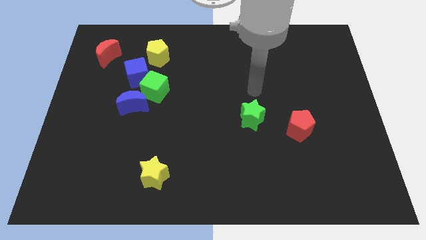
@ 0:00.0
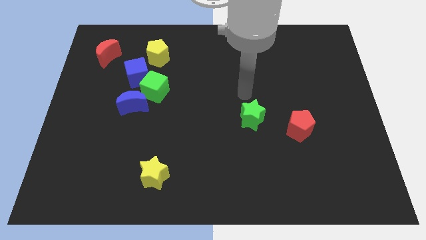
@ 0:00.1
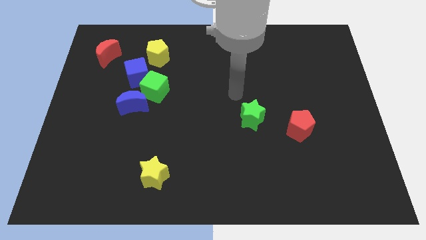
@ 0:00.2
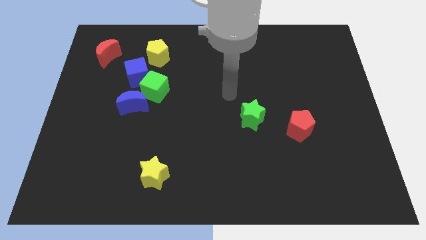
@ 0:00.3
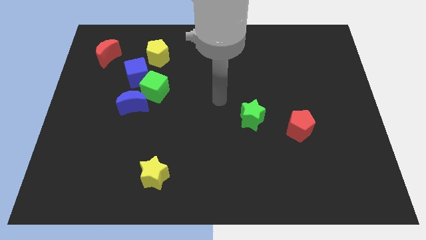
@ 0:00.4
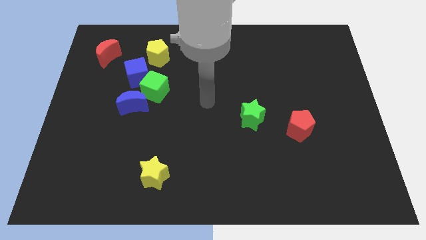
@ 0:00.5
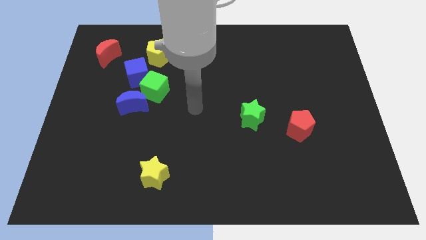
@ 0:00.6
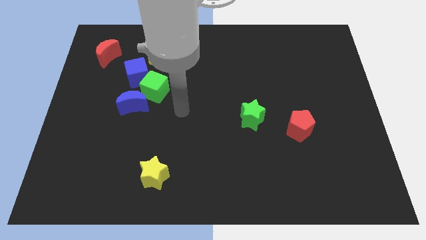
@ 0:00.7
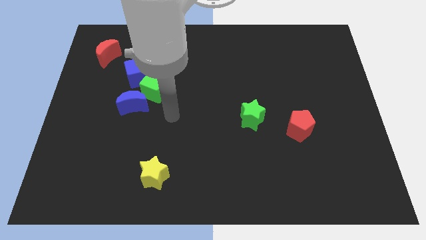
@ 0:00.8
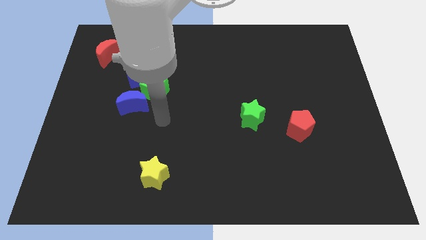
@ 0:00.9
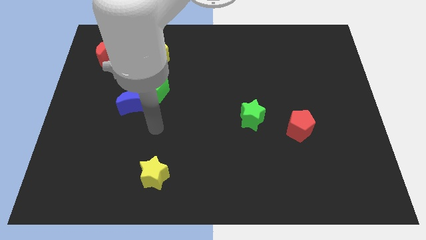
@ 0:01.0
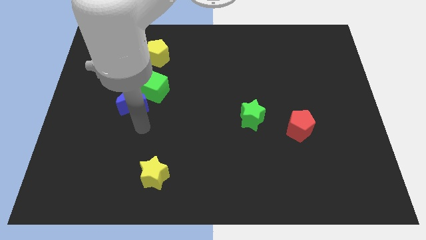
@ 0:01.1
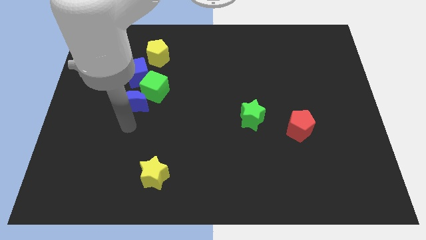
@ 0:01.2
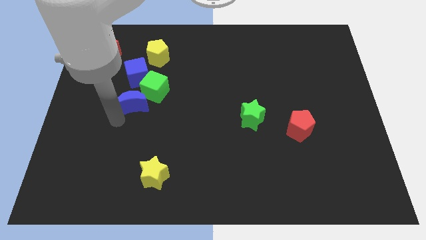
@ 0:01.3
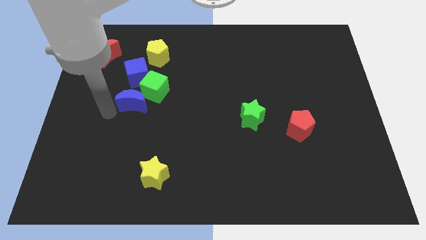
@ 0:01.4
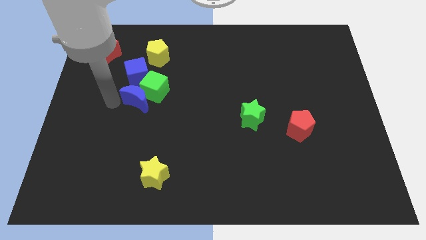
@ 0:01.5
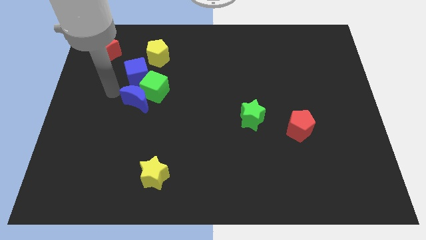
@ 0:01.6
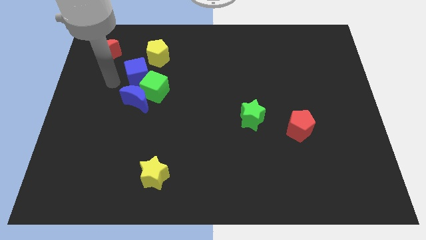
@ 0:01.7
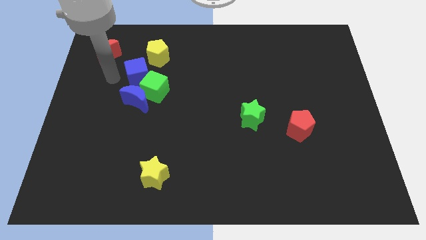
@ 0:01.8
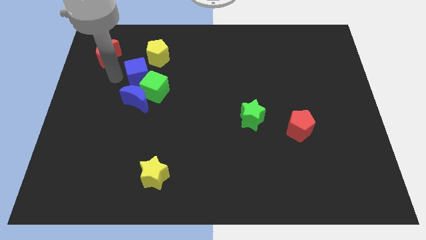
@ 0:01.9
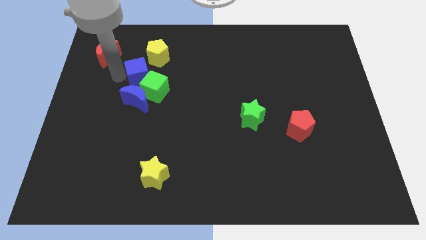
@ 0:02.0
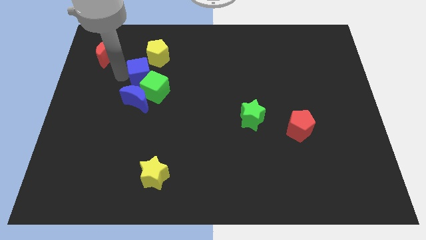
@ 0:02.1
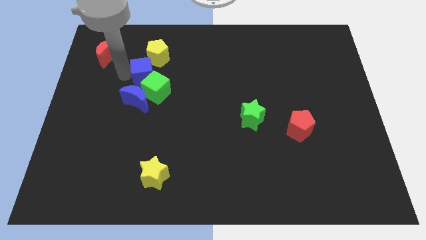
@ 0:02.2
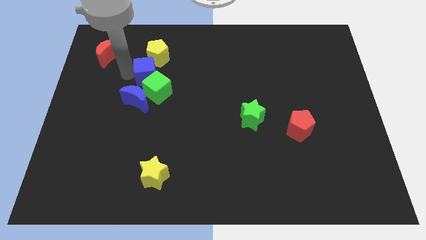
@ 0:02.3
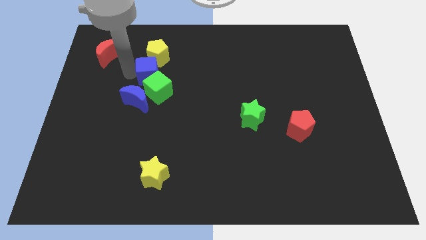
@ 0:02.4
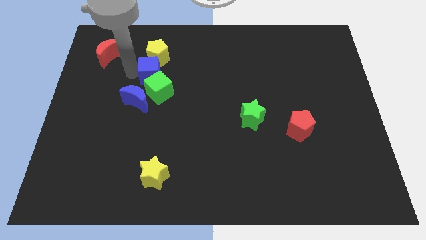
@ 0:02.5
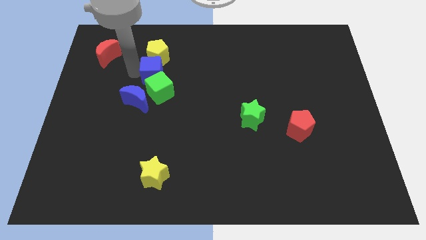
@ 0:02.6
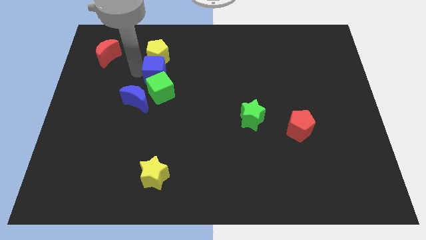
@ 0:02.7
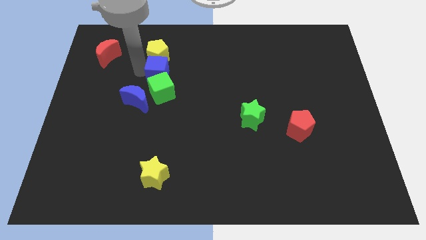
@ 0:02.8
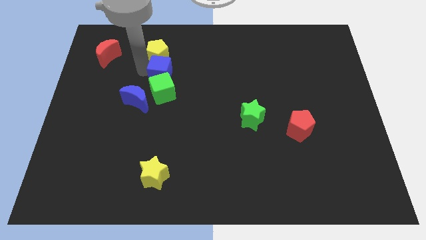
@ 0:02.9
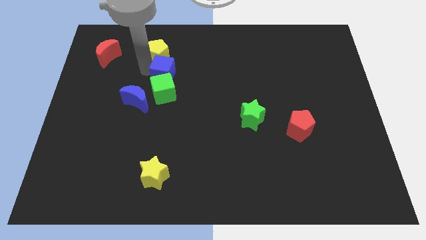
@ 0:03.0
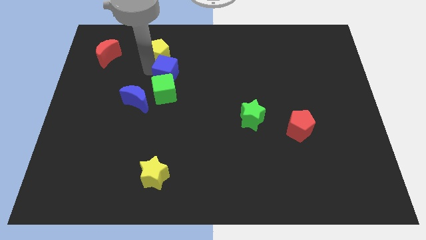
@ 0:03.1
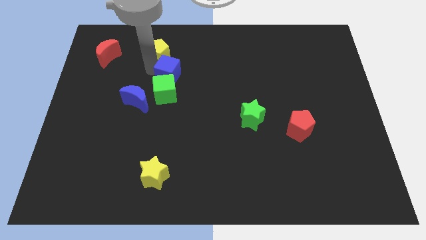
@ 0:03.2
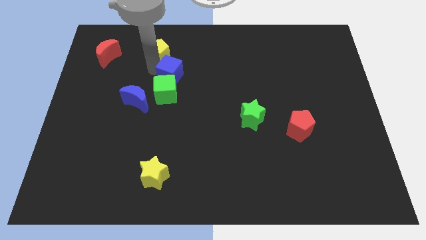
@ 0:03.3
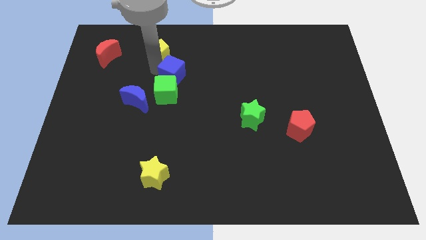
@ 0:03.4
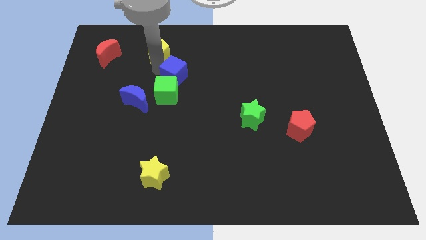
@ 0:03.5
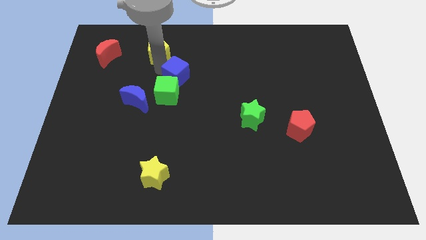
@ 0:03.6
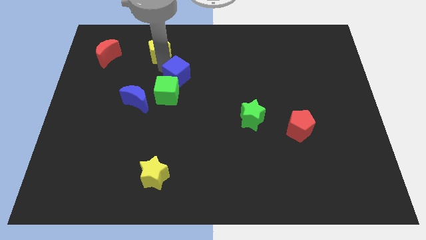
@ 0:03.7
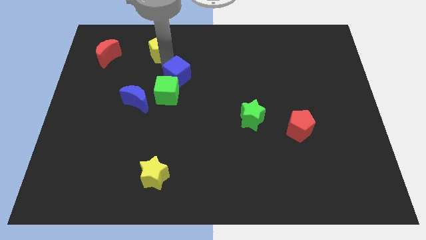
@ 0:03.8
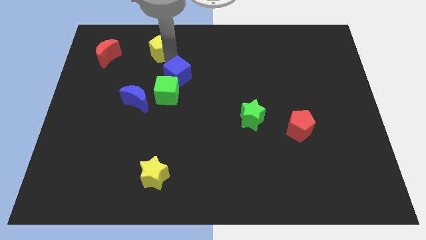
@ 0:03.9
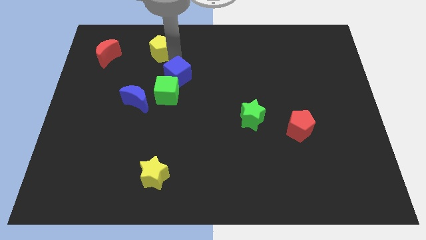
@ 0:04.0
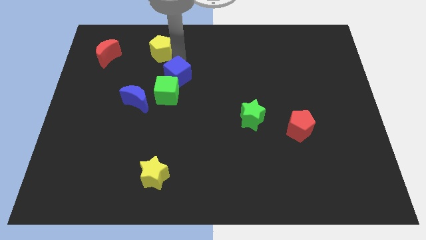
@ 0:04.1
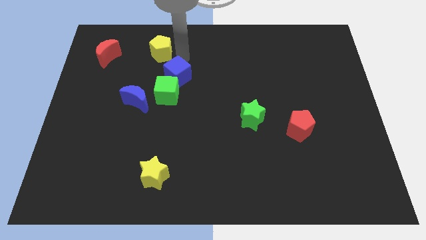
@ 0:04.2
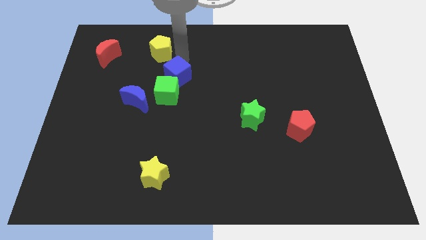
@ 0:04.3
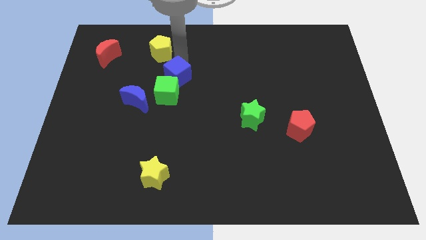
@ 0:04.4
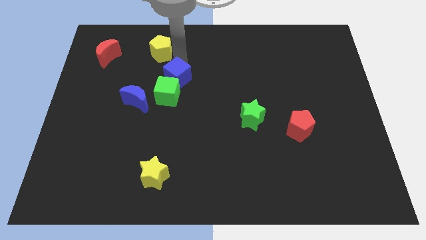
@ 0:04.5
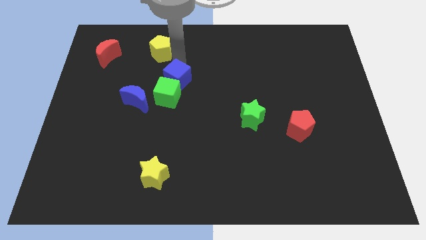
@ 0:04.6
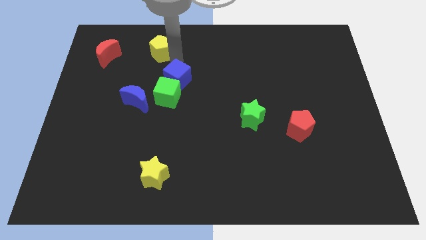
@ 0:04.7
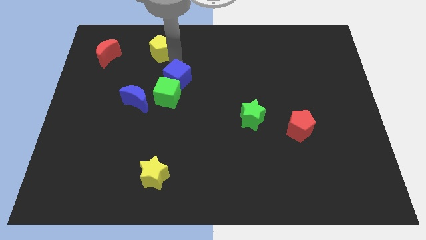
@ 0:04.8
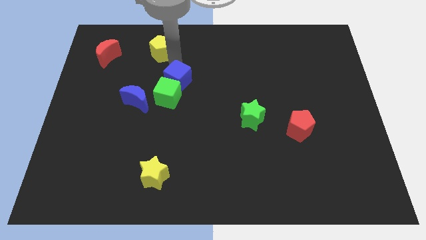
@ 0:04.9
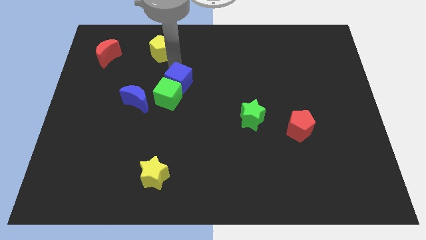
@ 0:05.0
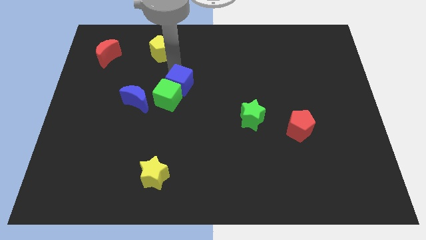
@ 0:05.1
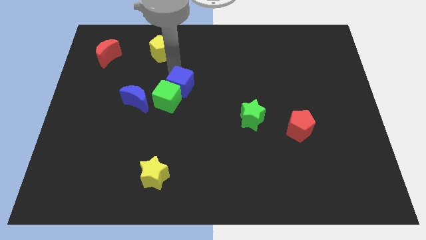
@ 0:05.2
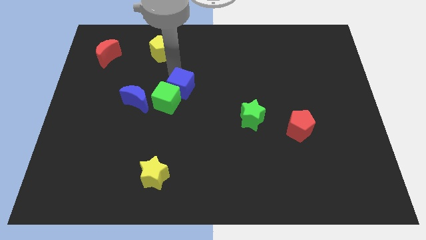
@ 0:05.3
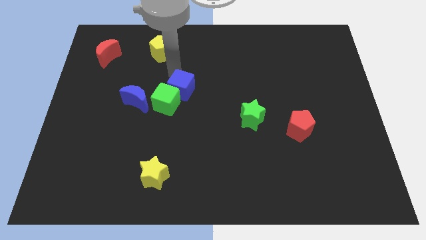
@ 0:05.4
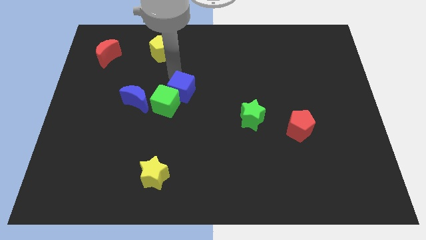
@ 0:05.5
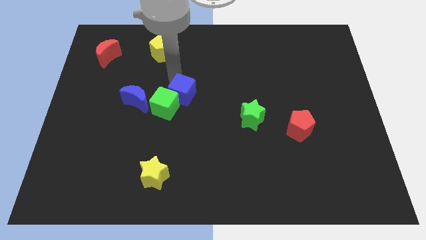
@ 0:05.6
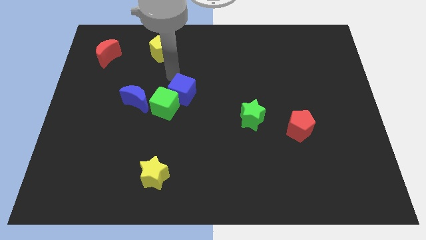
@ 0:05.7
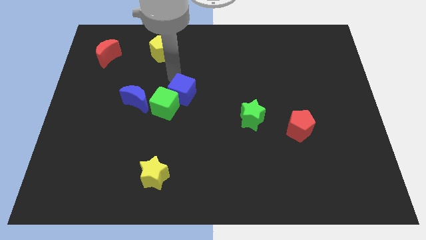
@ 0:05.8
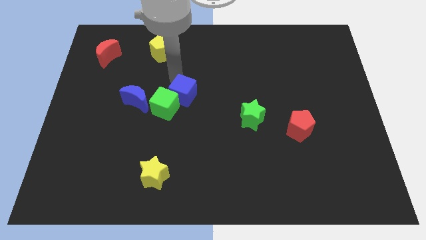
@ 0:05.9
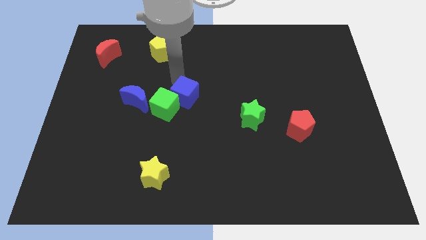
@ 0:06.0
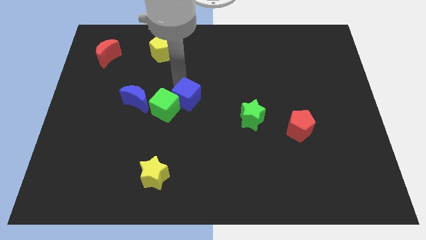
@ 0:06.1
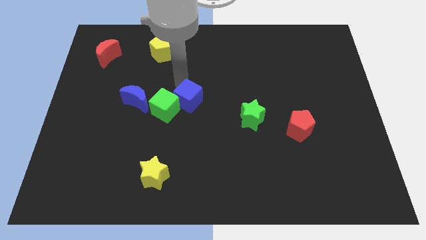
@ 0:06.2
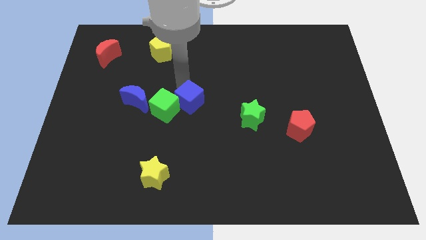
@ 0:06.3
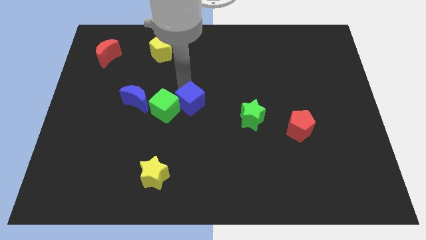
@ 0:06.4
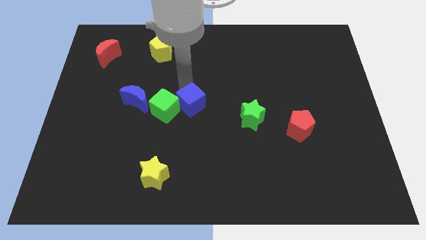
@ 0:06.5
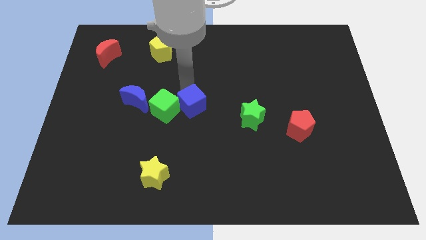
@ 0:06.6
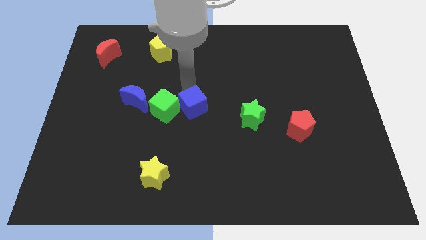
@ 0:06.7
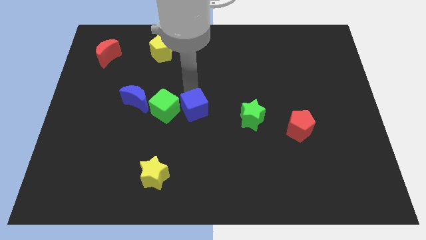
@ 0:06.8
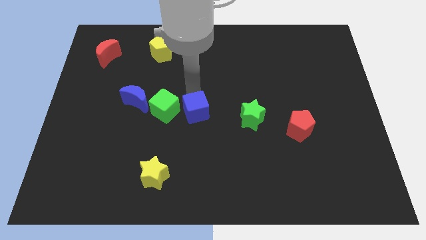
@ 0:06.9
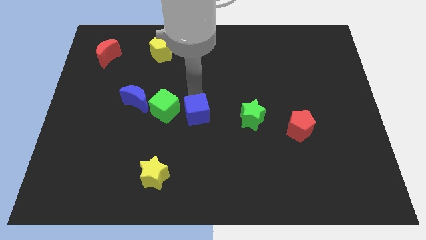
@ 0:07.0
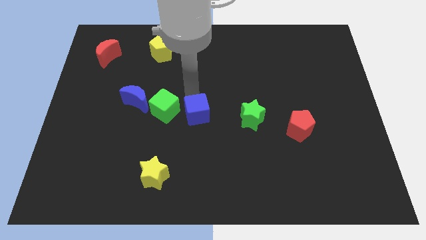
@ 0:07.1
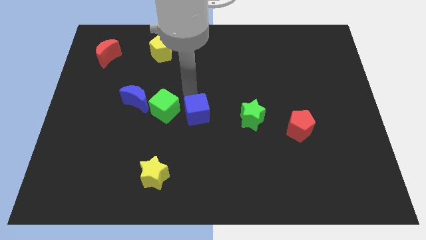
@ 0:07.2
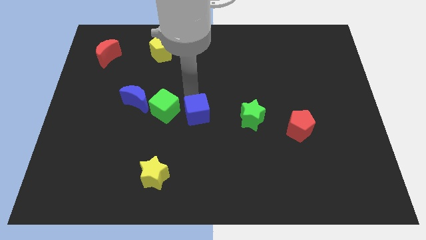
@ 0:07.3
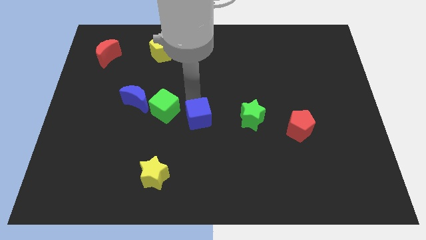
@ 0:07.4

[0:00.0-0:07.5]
slide the blue cube downwards and right diagonally

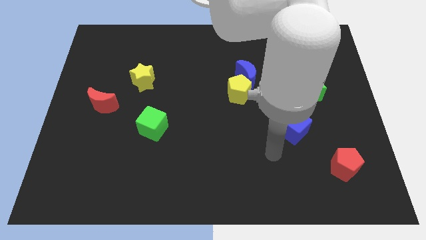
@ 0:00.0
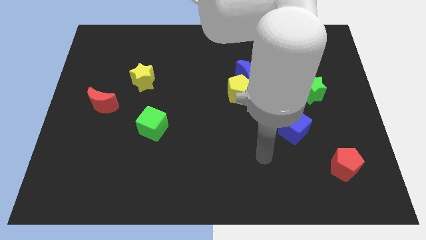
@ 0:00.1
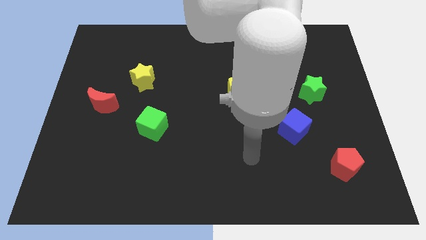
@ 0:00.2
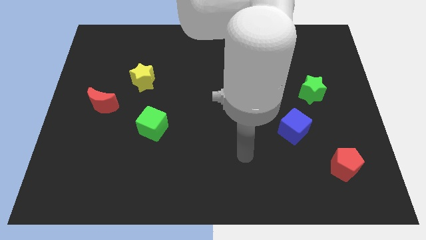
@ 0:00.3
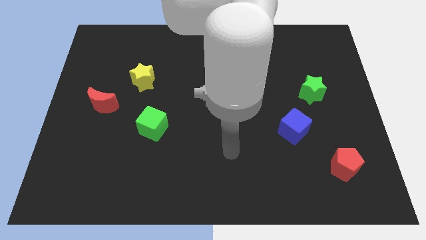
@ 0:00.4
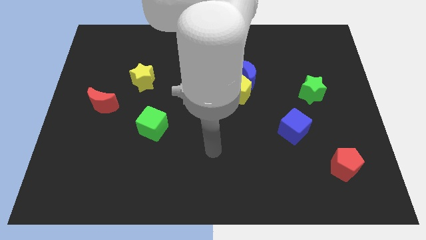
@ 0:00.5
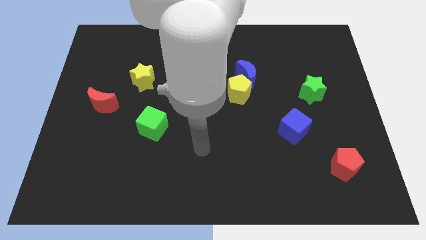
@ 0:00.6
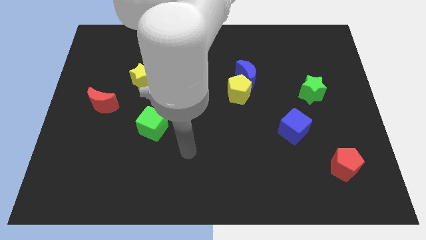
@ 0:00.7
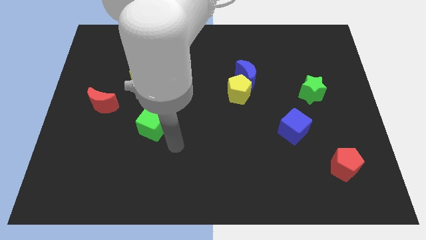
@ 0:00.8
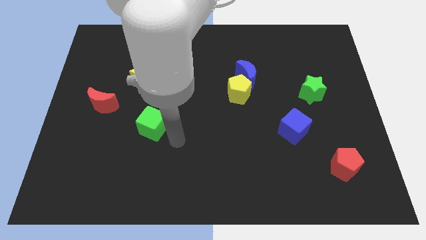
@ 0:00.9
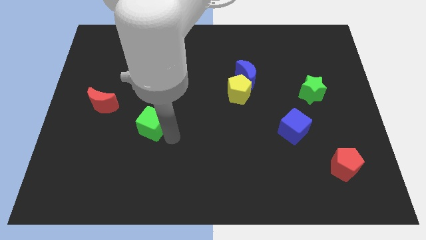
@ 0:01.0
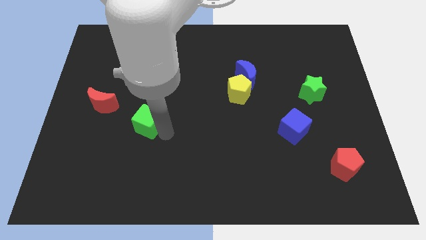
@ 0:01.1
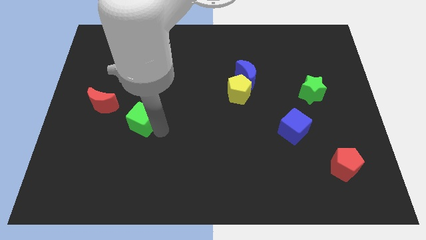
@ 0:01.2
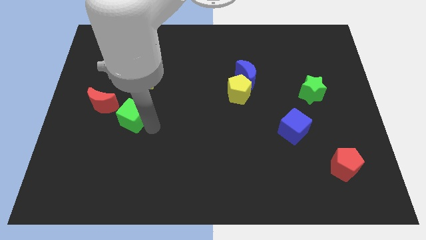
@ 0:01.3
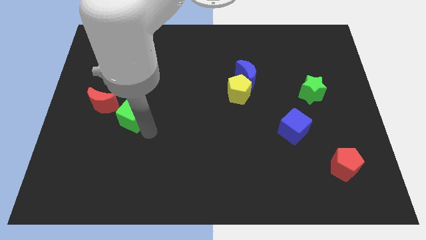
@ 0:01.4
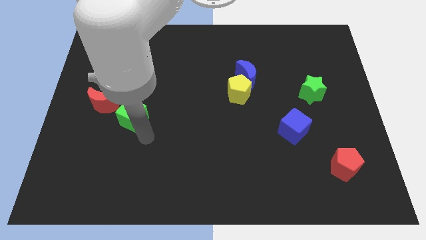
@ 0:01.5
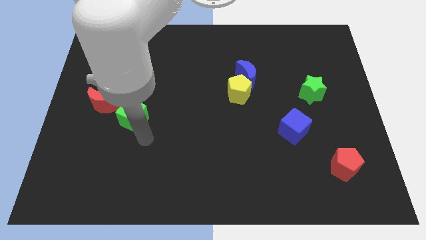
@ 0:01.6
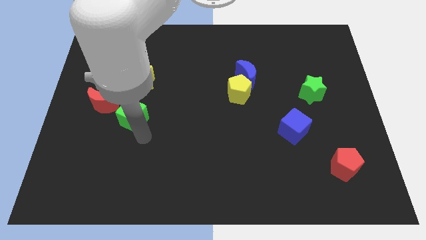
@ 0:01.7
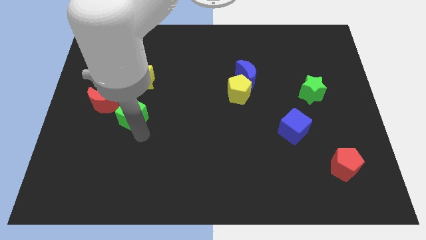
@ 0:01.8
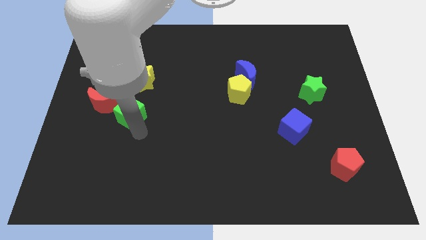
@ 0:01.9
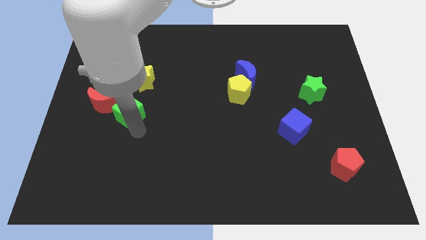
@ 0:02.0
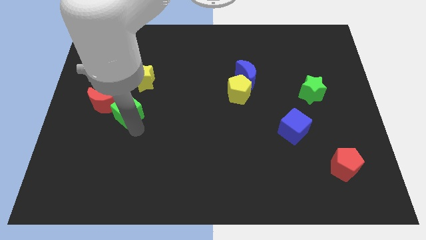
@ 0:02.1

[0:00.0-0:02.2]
slightly move the green cube upwards and then left
